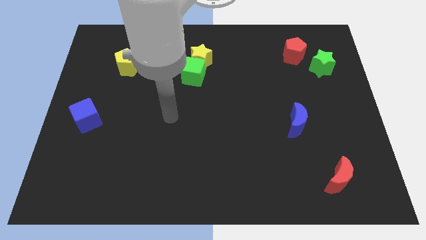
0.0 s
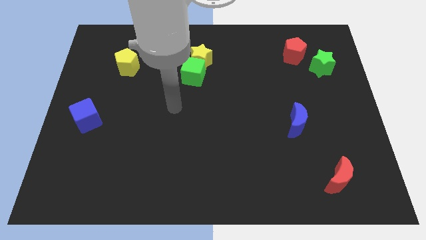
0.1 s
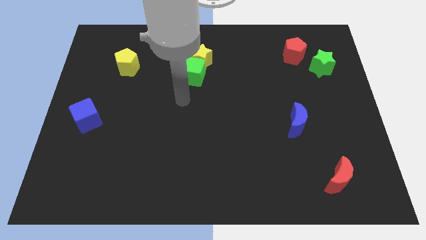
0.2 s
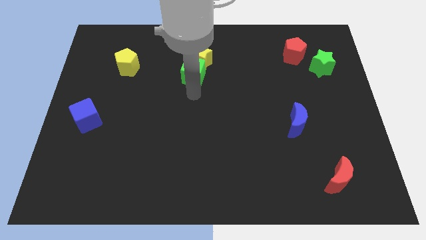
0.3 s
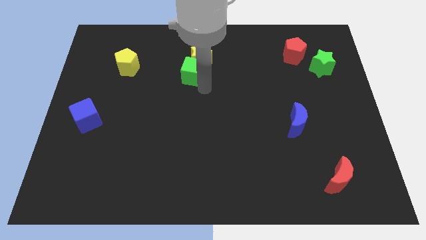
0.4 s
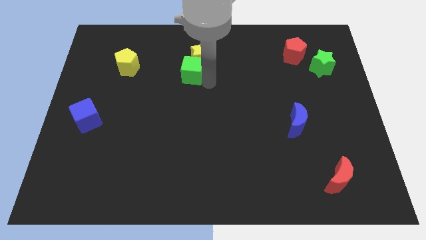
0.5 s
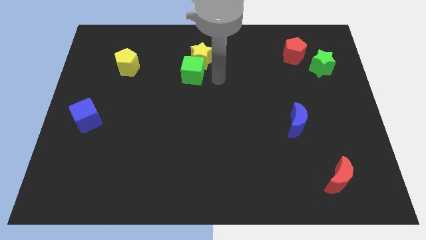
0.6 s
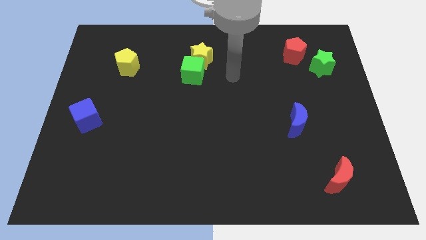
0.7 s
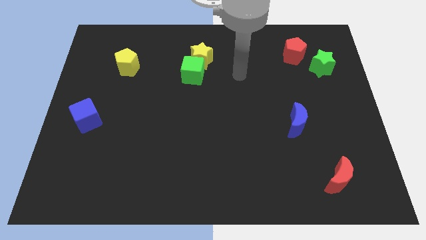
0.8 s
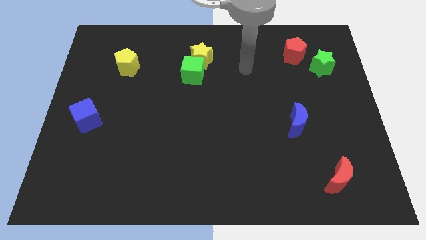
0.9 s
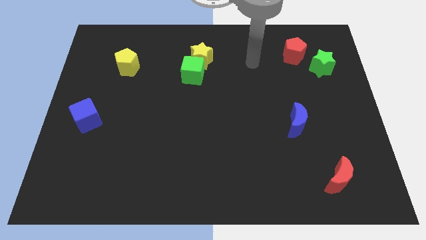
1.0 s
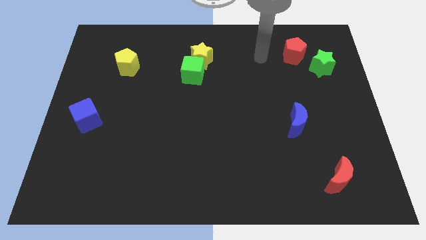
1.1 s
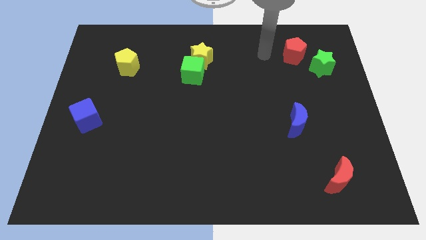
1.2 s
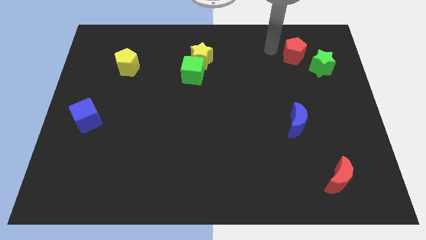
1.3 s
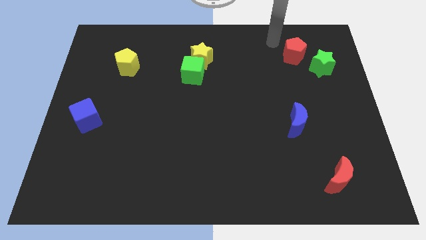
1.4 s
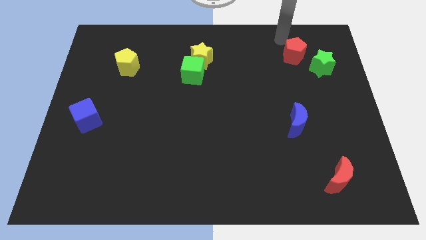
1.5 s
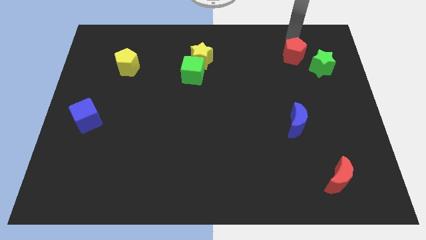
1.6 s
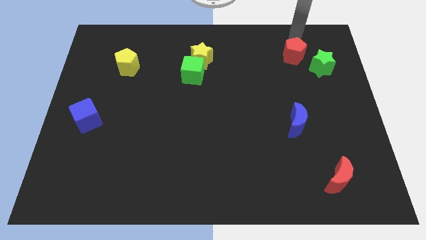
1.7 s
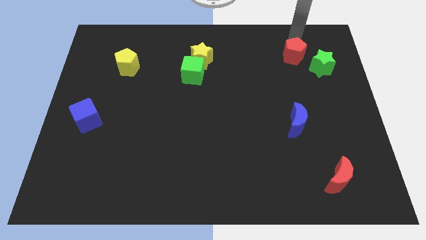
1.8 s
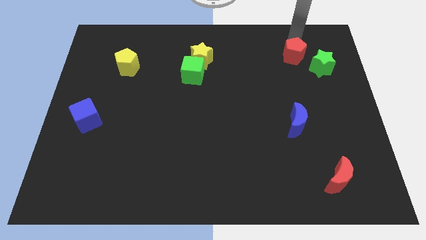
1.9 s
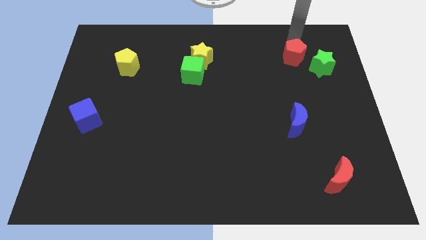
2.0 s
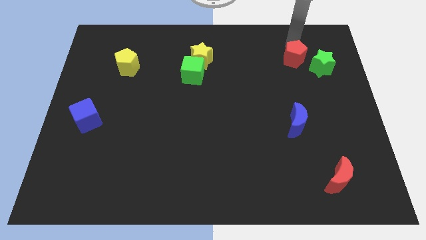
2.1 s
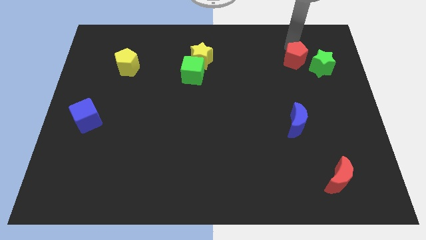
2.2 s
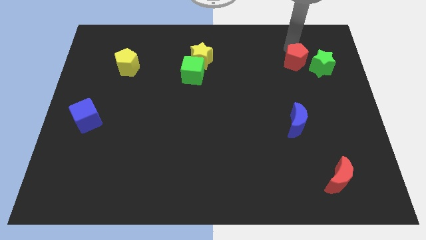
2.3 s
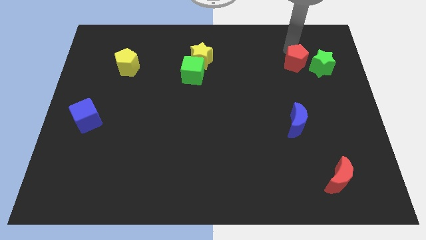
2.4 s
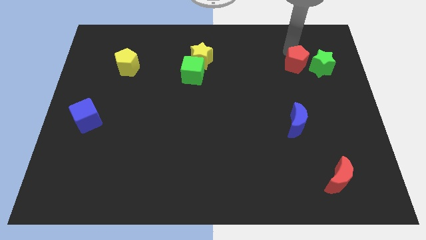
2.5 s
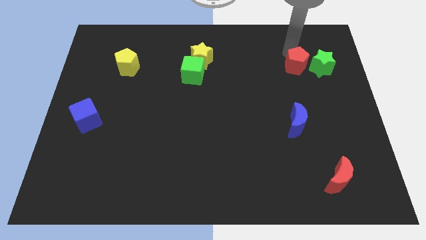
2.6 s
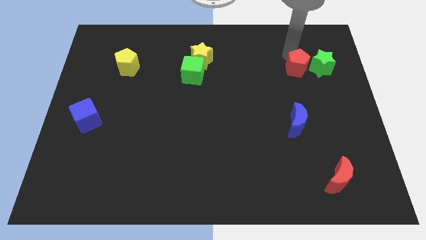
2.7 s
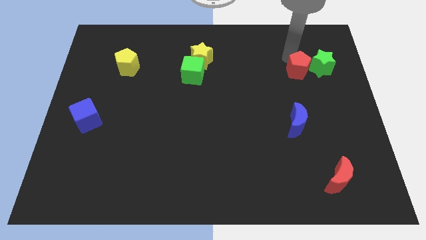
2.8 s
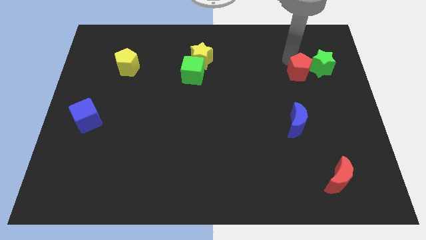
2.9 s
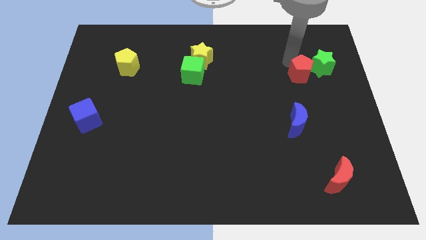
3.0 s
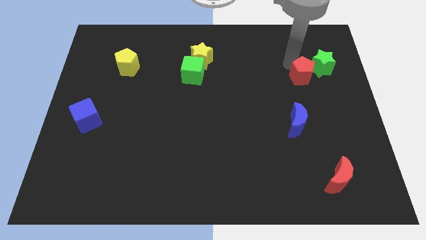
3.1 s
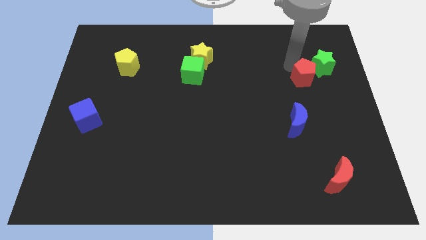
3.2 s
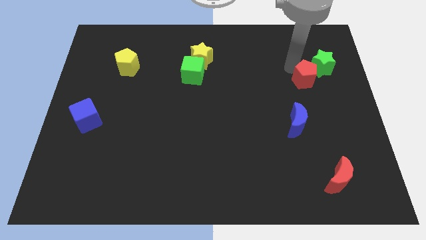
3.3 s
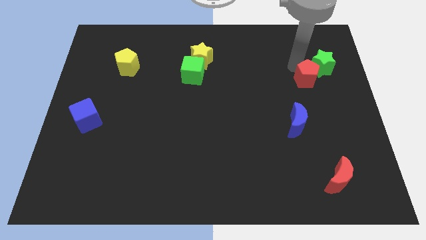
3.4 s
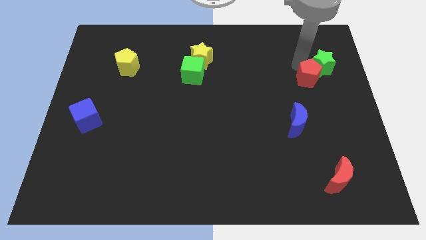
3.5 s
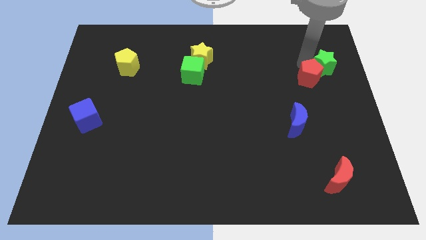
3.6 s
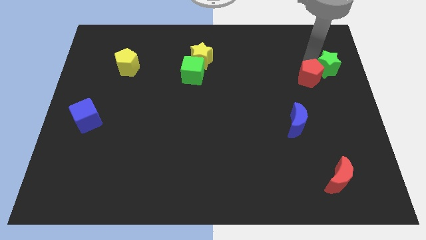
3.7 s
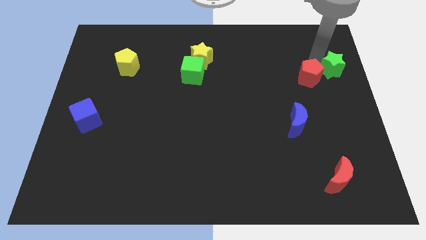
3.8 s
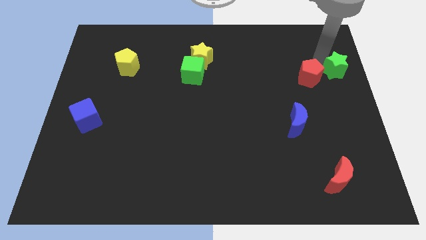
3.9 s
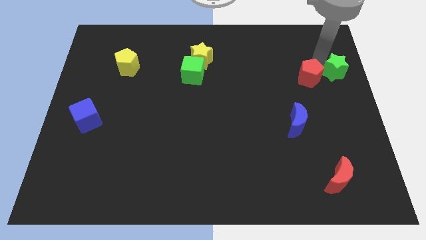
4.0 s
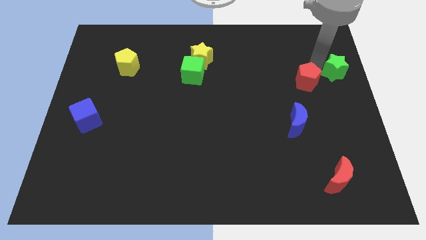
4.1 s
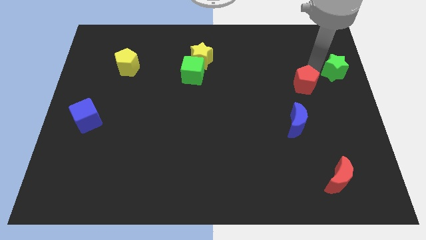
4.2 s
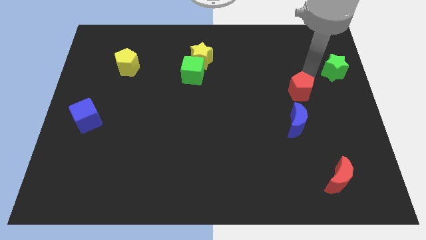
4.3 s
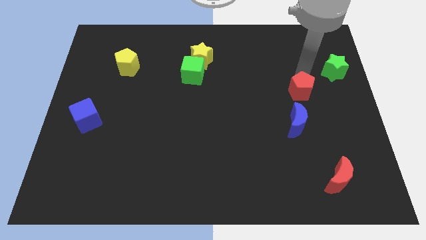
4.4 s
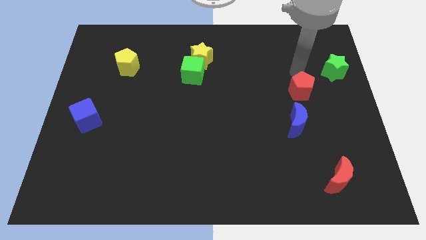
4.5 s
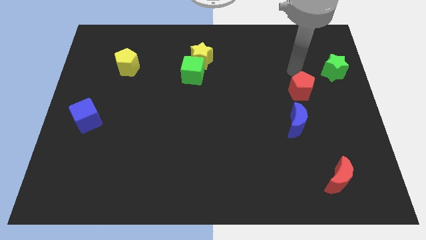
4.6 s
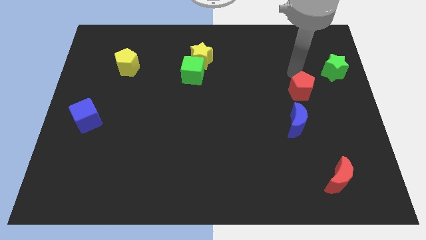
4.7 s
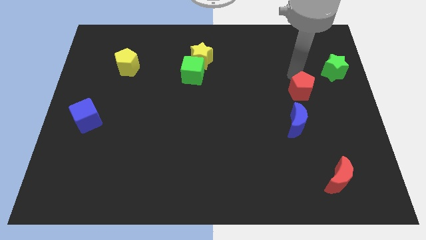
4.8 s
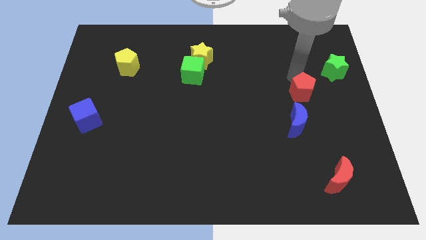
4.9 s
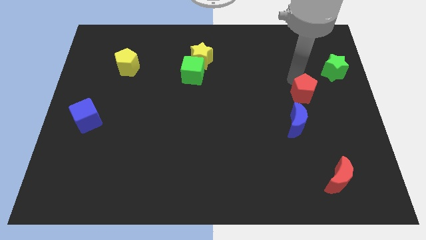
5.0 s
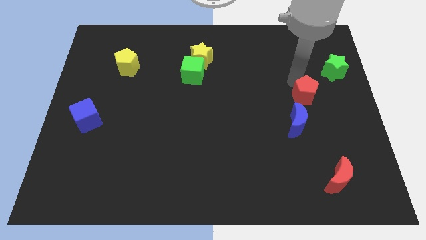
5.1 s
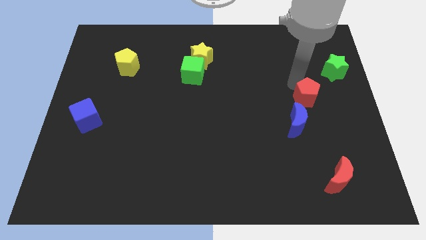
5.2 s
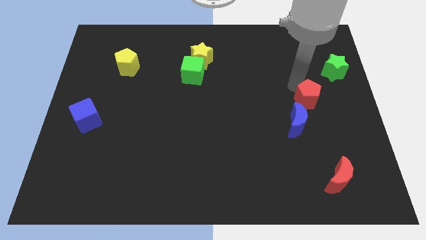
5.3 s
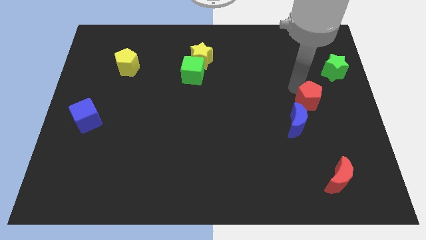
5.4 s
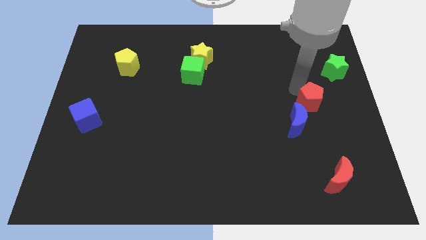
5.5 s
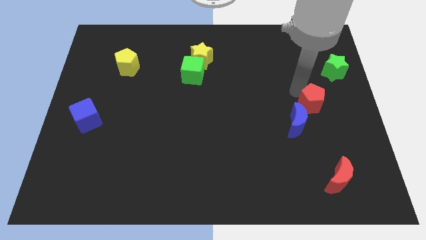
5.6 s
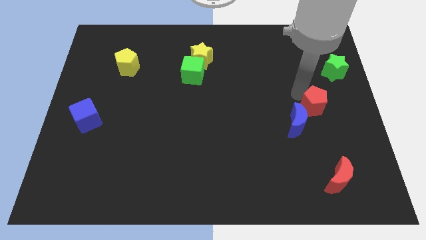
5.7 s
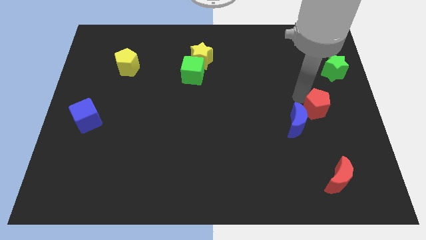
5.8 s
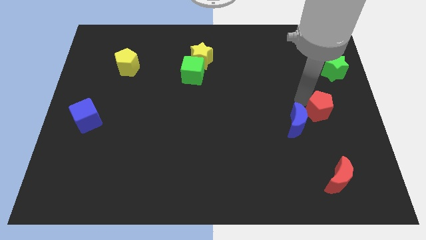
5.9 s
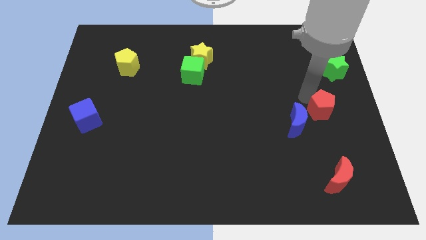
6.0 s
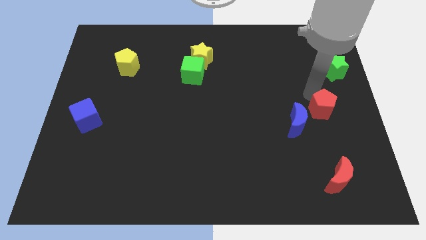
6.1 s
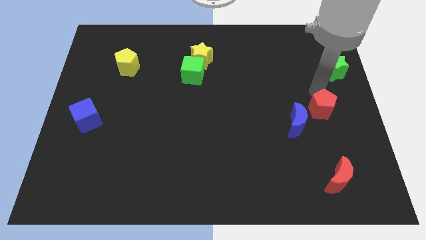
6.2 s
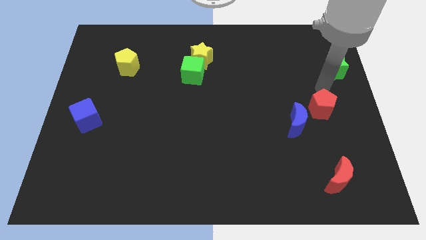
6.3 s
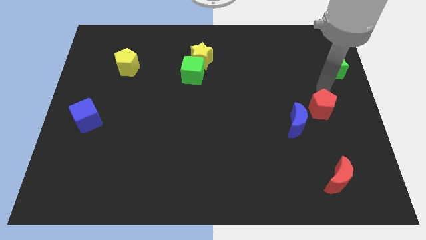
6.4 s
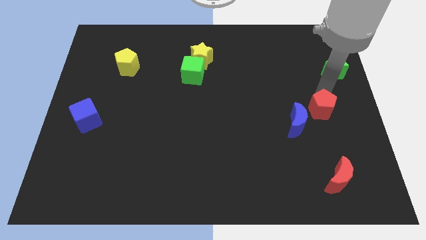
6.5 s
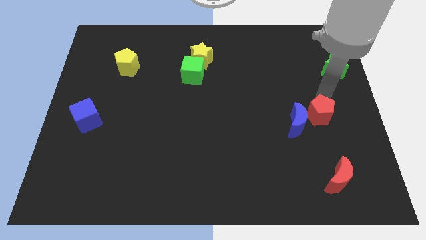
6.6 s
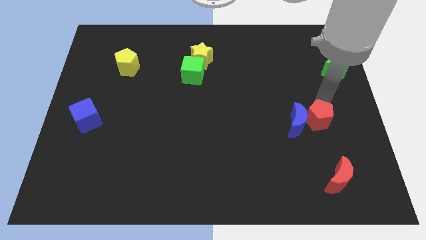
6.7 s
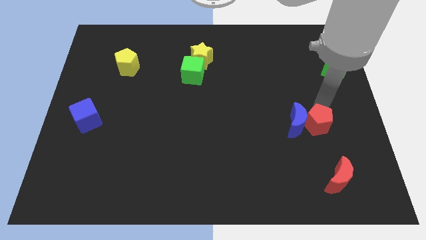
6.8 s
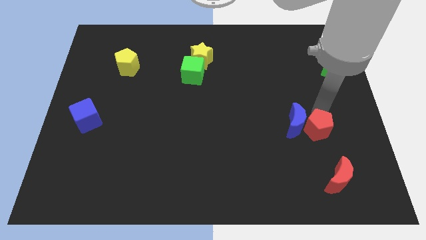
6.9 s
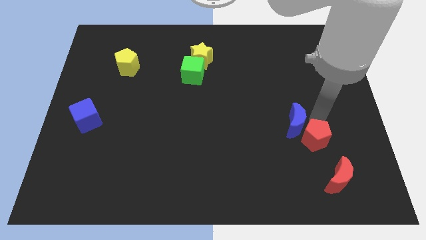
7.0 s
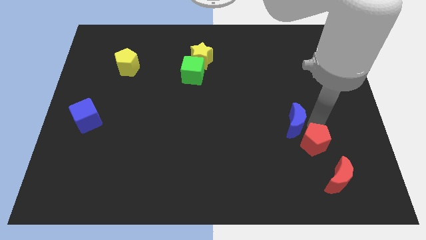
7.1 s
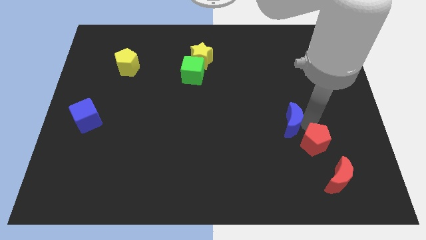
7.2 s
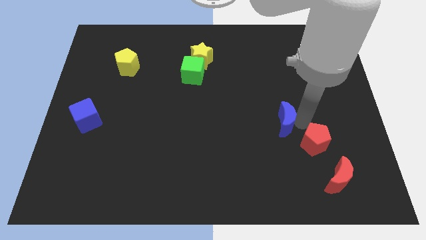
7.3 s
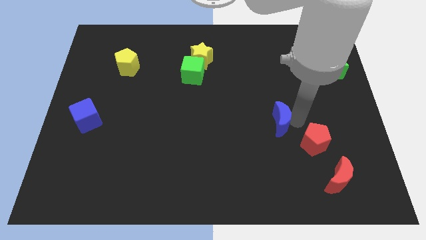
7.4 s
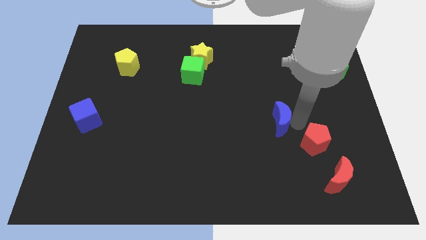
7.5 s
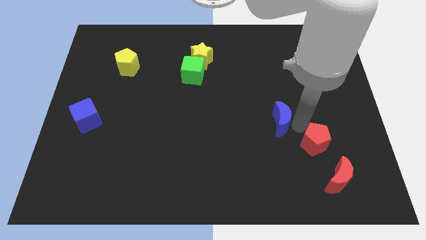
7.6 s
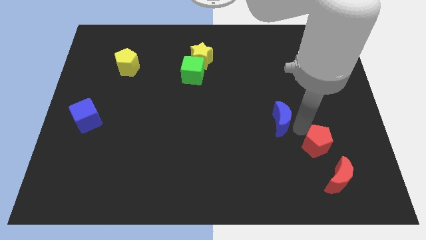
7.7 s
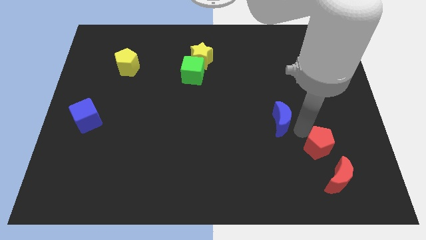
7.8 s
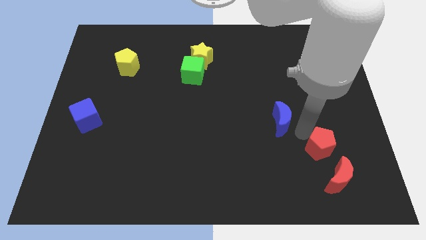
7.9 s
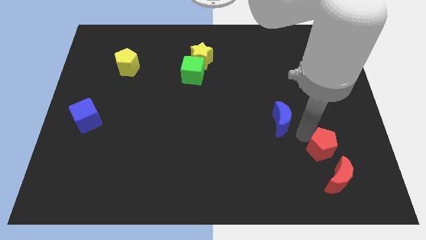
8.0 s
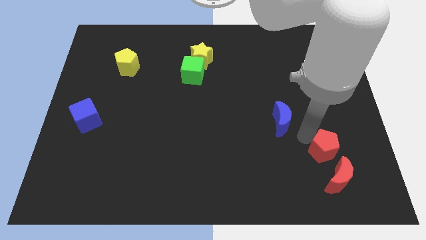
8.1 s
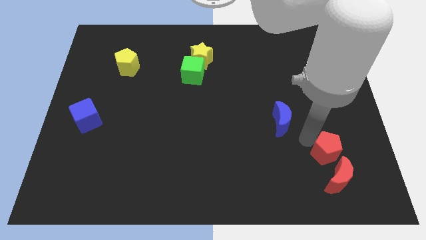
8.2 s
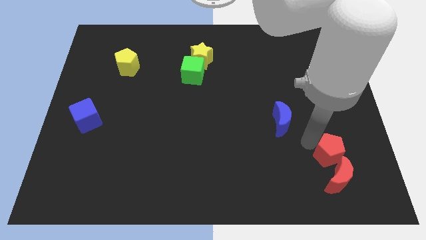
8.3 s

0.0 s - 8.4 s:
slide the red pentagon next to the red moon
